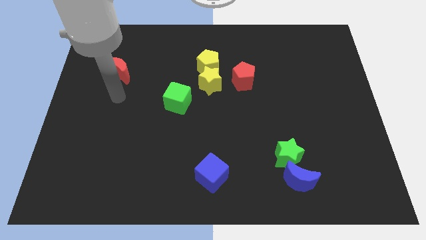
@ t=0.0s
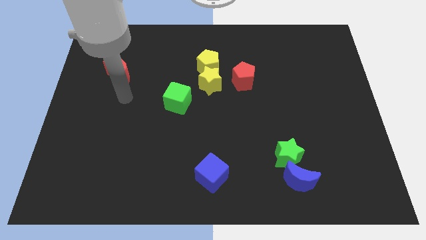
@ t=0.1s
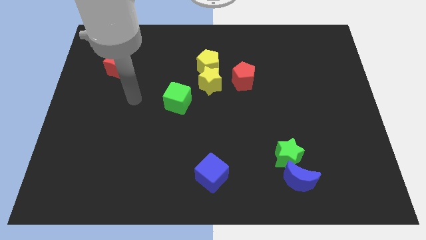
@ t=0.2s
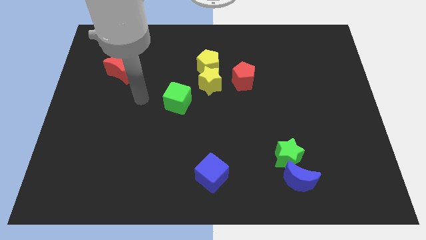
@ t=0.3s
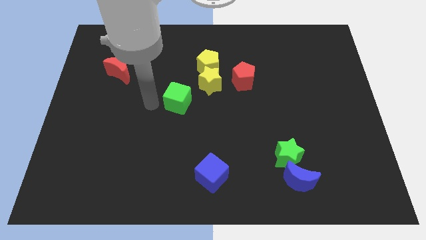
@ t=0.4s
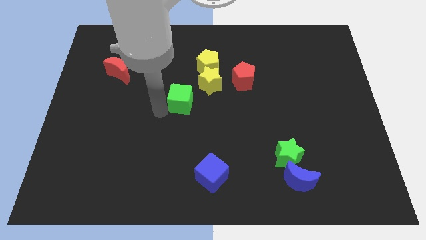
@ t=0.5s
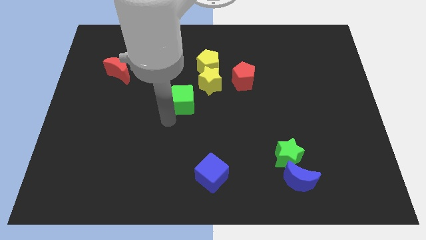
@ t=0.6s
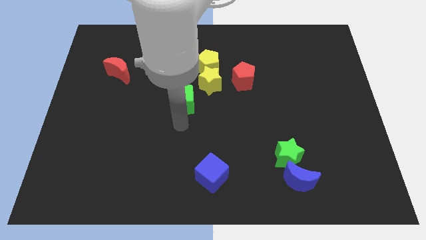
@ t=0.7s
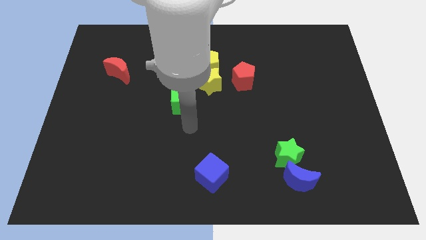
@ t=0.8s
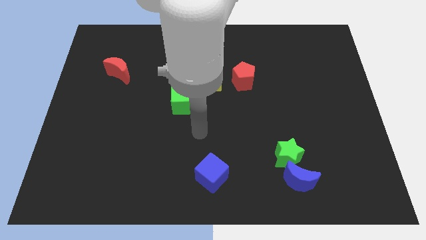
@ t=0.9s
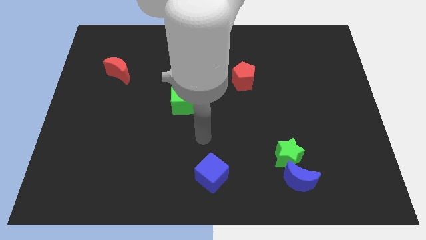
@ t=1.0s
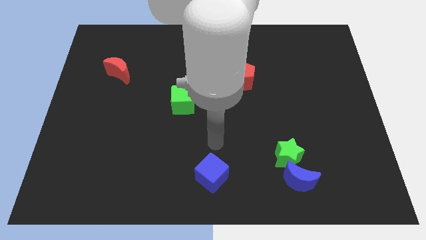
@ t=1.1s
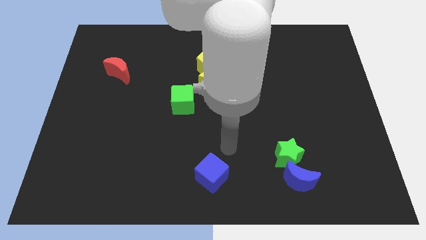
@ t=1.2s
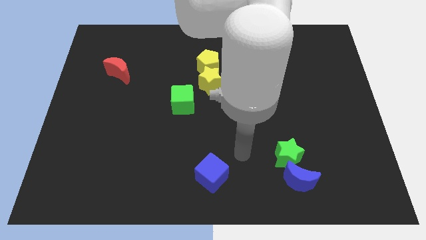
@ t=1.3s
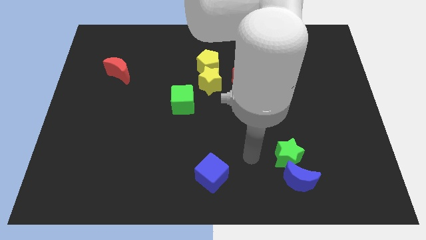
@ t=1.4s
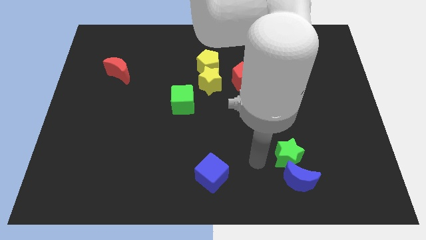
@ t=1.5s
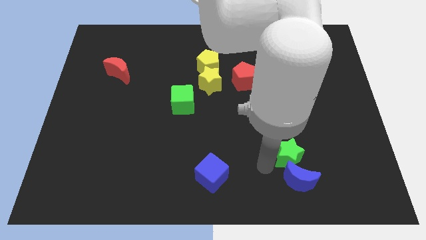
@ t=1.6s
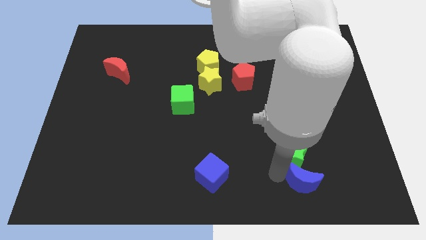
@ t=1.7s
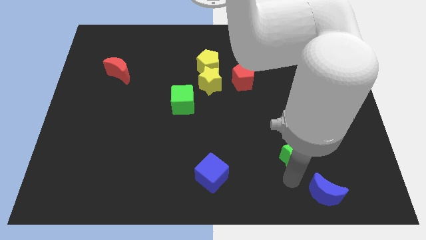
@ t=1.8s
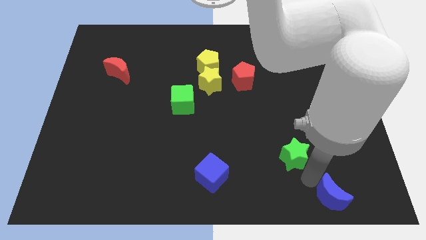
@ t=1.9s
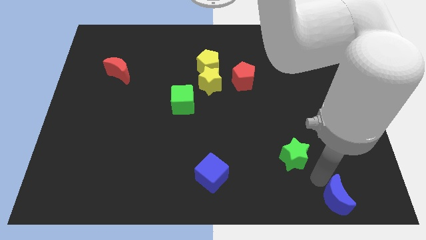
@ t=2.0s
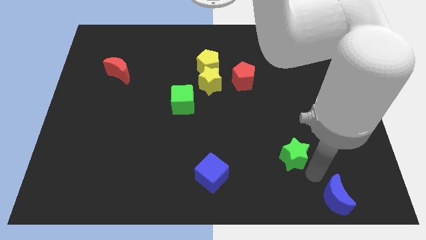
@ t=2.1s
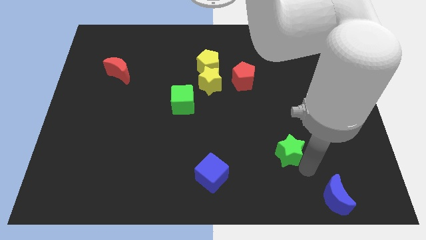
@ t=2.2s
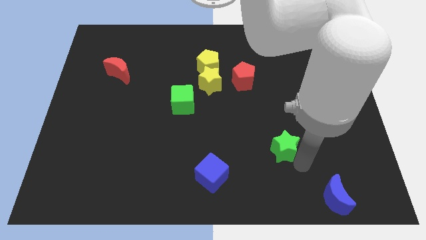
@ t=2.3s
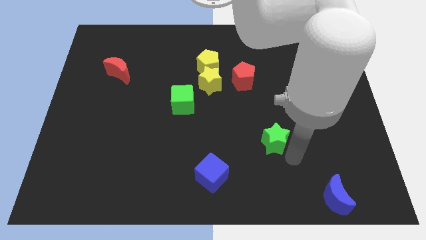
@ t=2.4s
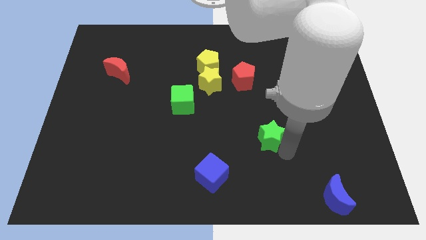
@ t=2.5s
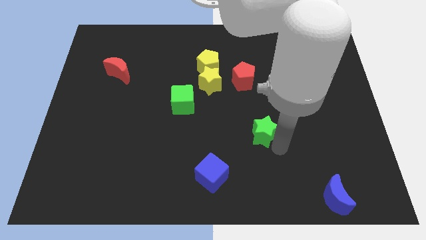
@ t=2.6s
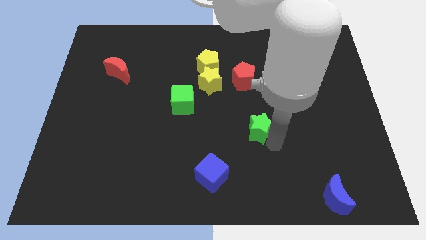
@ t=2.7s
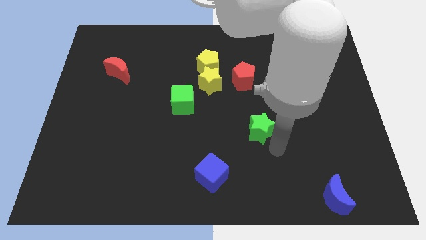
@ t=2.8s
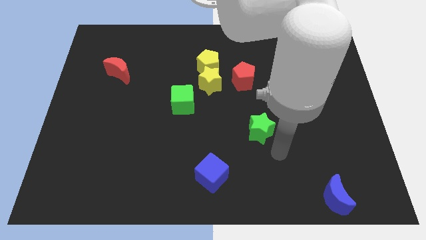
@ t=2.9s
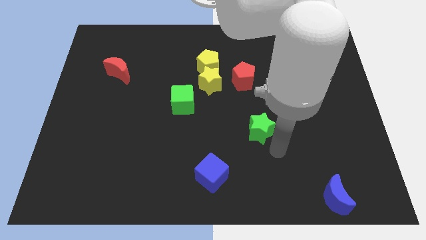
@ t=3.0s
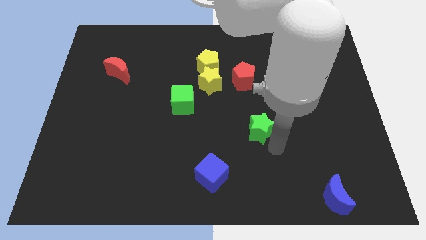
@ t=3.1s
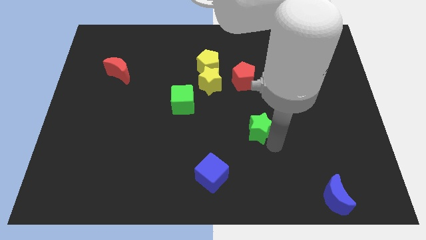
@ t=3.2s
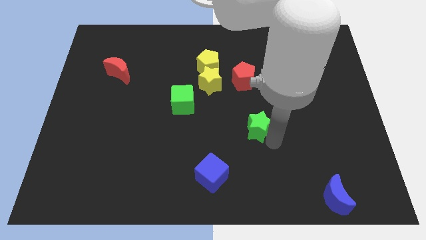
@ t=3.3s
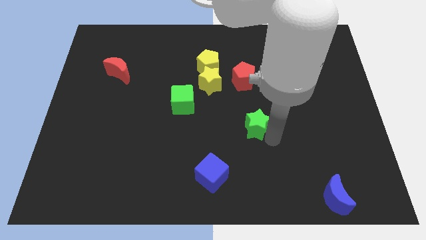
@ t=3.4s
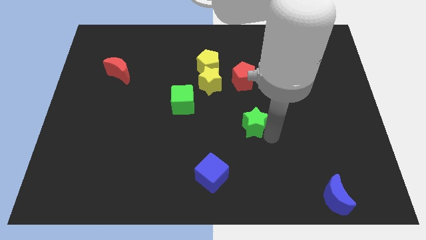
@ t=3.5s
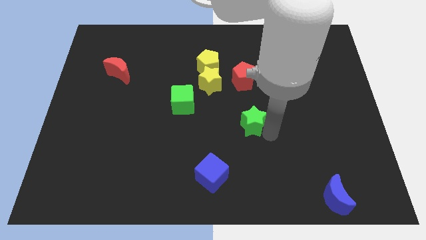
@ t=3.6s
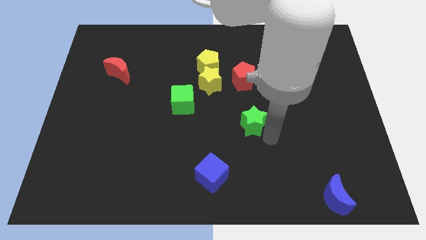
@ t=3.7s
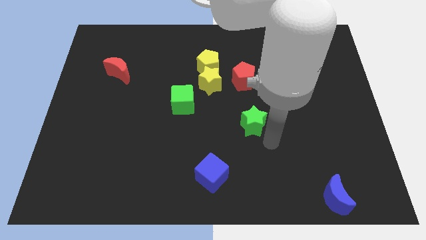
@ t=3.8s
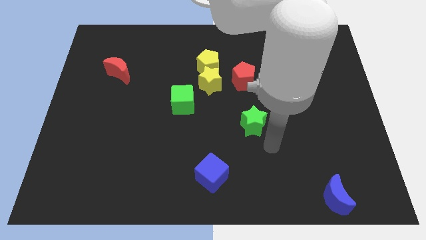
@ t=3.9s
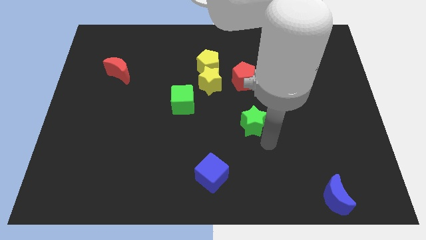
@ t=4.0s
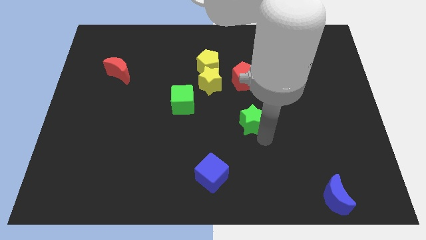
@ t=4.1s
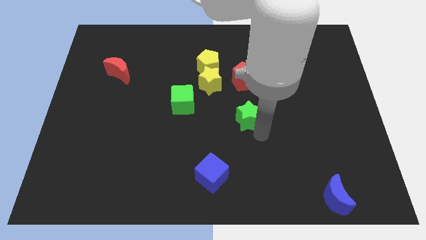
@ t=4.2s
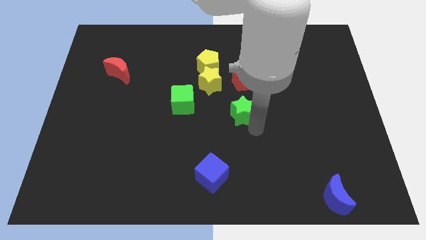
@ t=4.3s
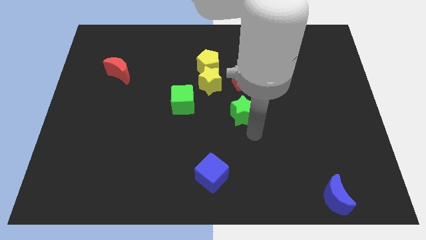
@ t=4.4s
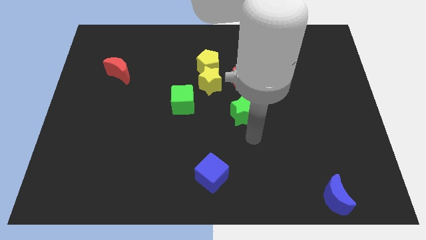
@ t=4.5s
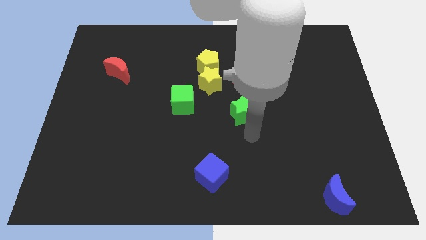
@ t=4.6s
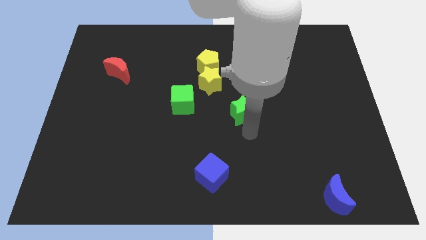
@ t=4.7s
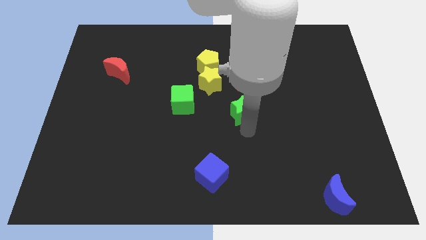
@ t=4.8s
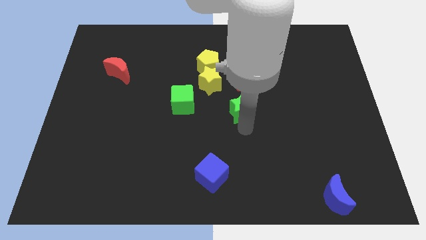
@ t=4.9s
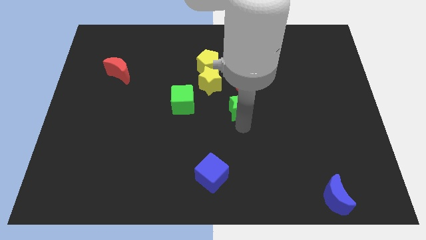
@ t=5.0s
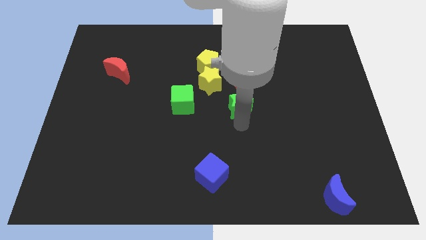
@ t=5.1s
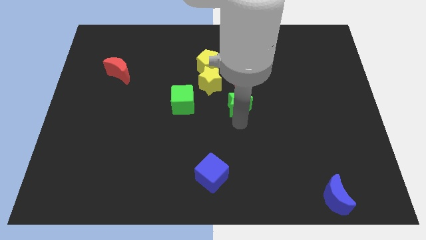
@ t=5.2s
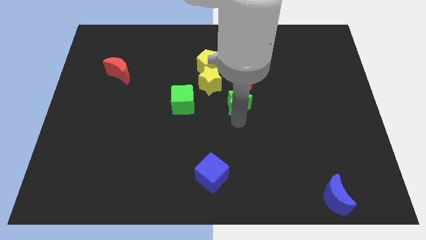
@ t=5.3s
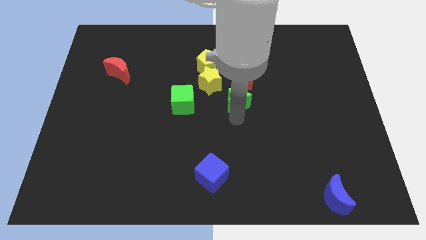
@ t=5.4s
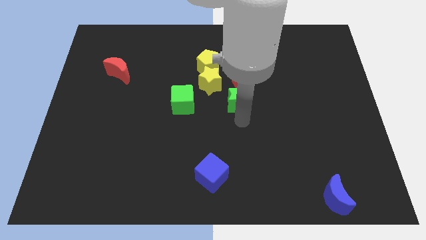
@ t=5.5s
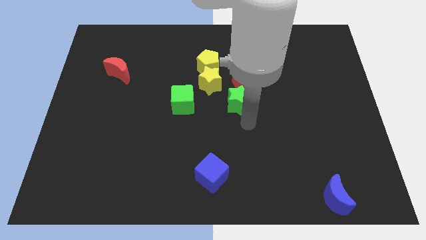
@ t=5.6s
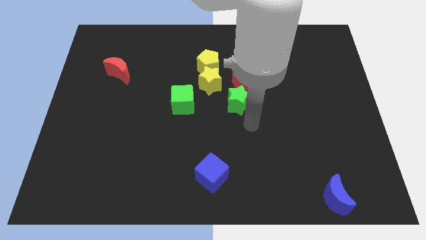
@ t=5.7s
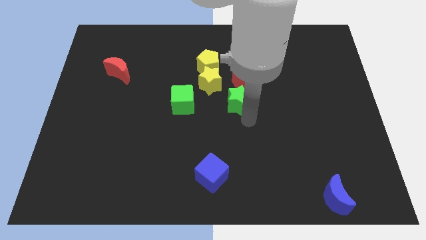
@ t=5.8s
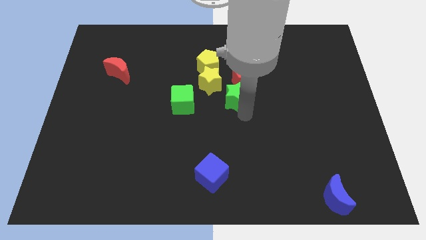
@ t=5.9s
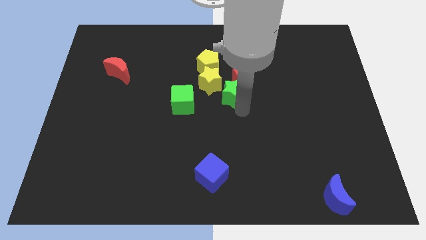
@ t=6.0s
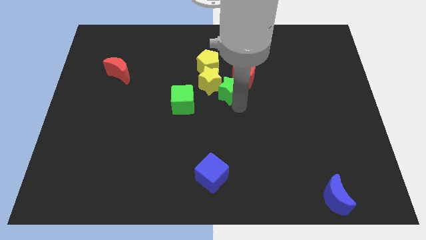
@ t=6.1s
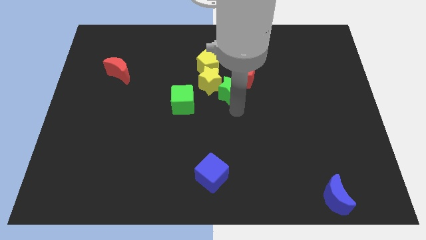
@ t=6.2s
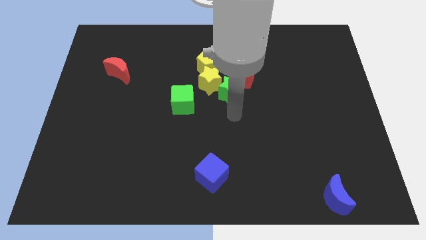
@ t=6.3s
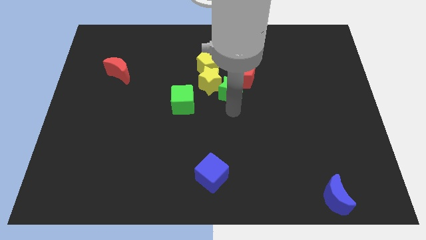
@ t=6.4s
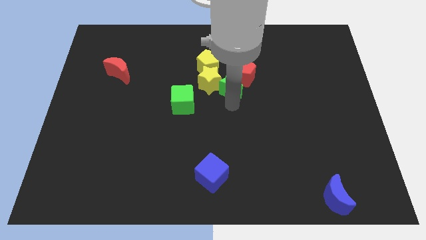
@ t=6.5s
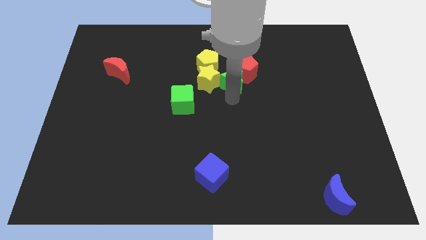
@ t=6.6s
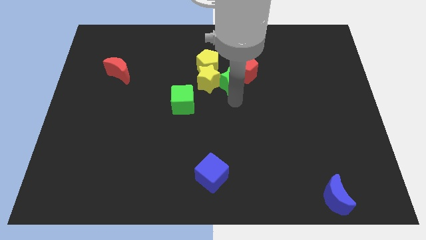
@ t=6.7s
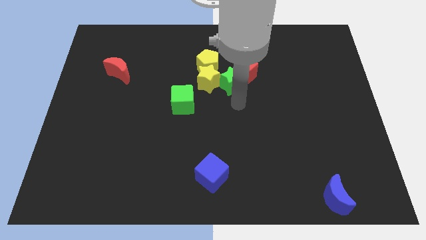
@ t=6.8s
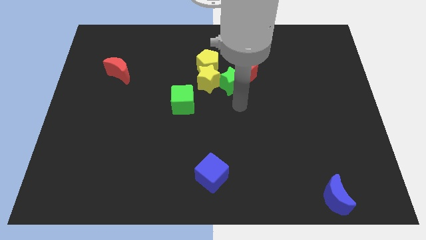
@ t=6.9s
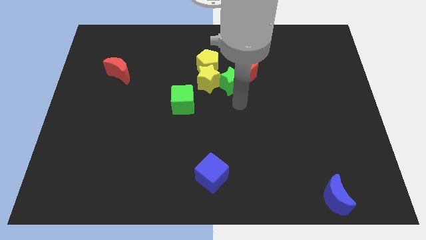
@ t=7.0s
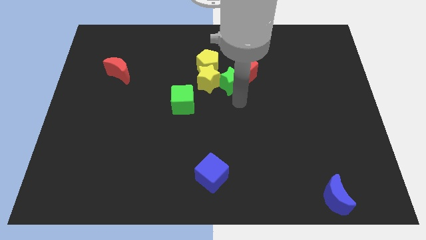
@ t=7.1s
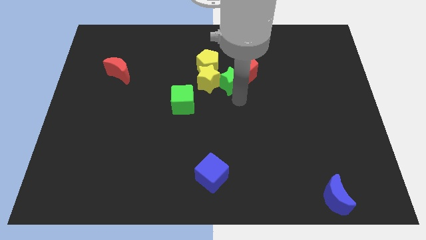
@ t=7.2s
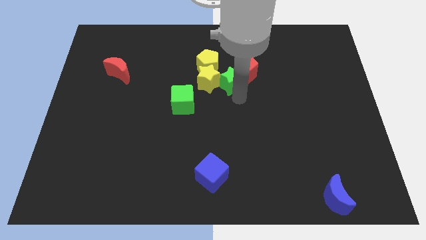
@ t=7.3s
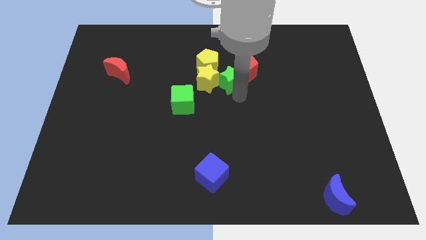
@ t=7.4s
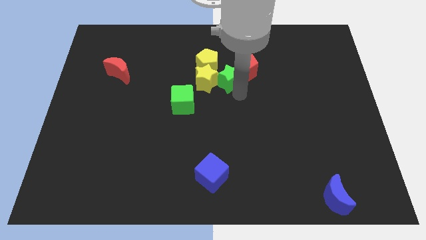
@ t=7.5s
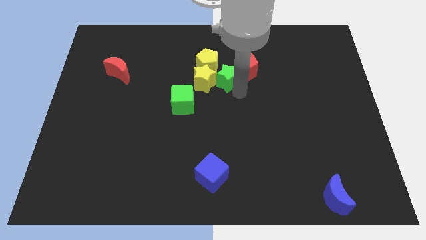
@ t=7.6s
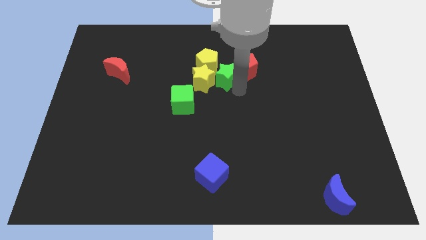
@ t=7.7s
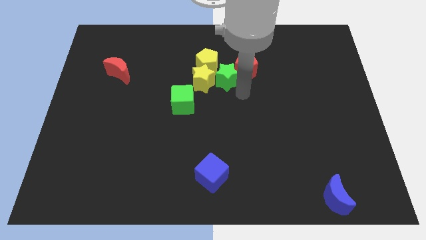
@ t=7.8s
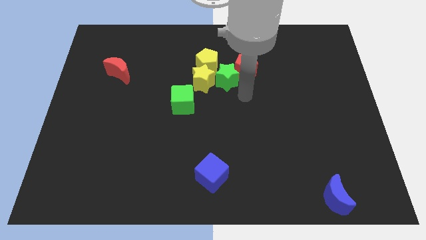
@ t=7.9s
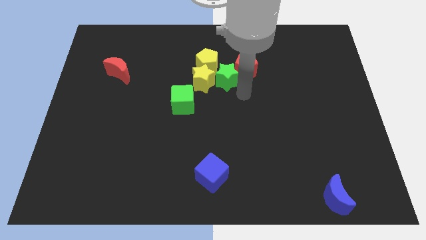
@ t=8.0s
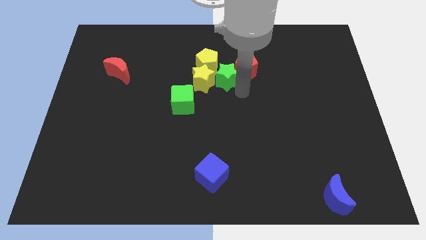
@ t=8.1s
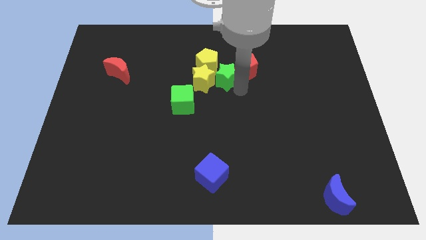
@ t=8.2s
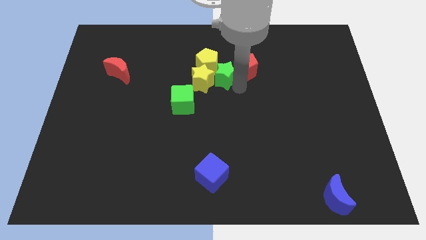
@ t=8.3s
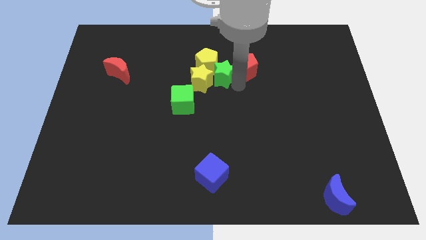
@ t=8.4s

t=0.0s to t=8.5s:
move the green star towards the yellow pentagon
